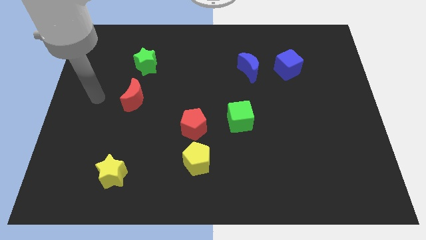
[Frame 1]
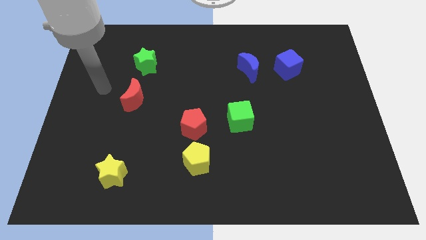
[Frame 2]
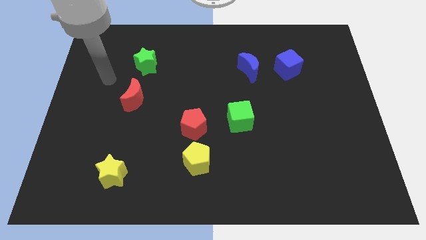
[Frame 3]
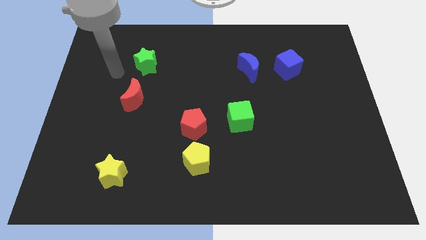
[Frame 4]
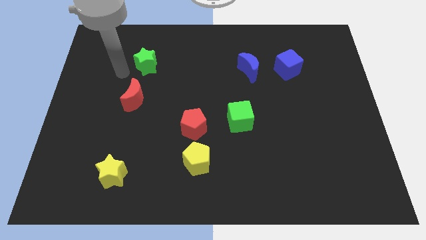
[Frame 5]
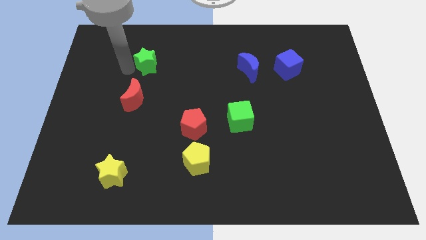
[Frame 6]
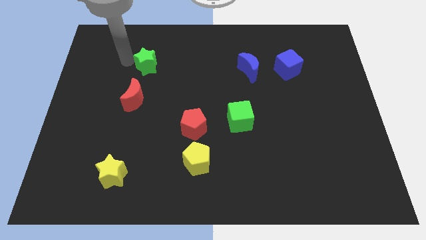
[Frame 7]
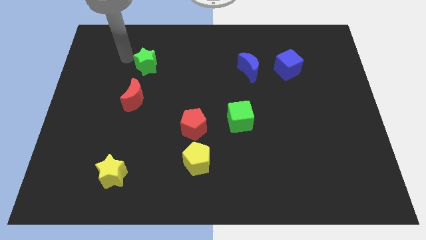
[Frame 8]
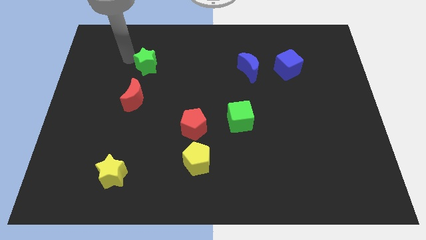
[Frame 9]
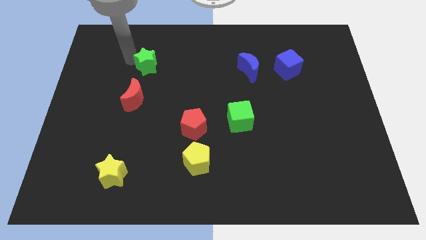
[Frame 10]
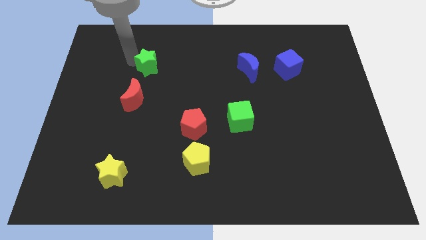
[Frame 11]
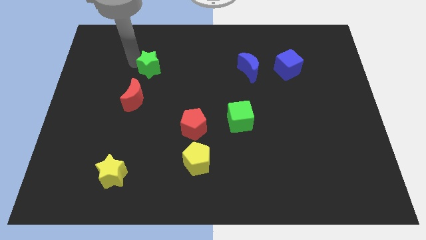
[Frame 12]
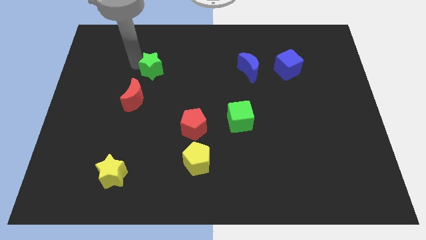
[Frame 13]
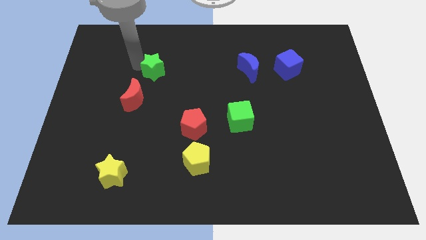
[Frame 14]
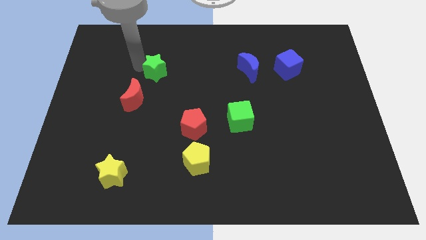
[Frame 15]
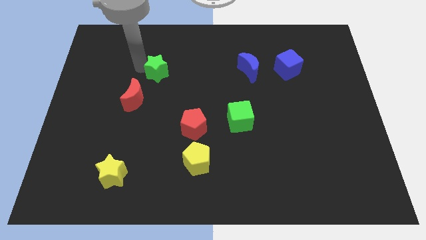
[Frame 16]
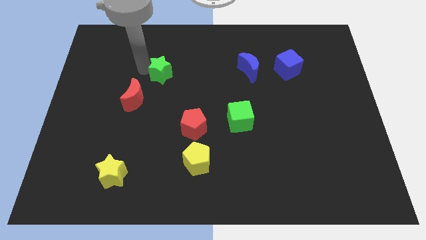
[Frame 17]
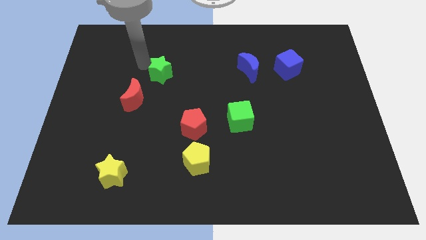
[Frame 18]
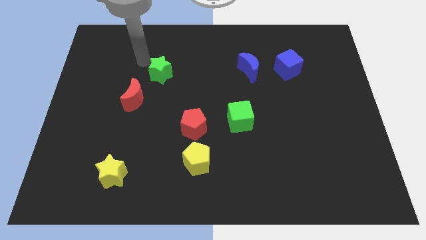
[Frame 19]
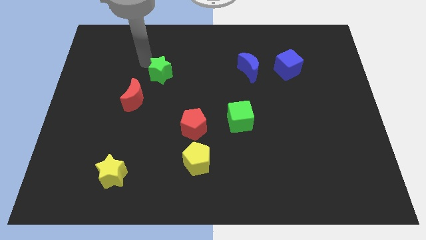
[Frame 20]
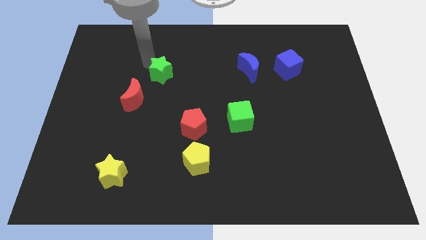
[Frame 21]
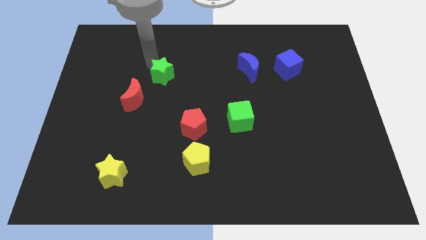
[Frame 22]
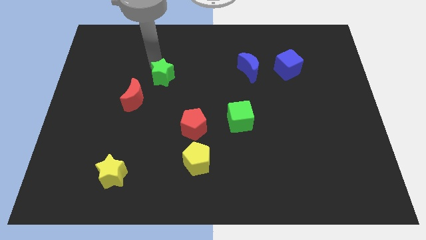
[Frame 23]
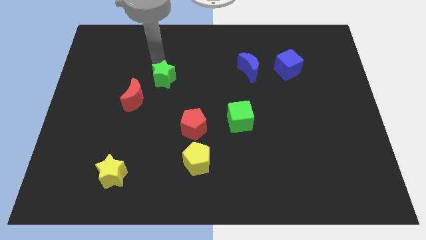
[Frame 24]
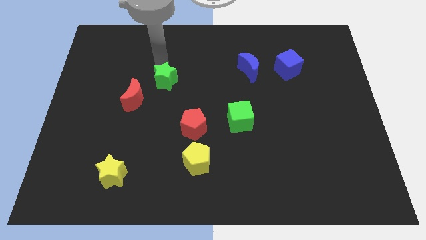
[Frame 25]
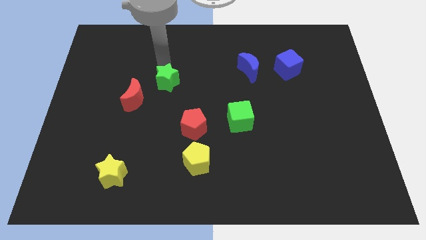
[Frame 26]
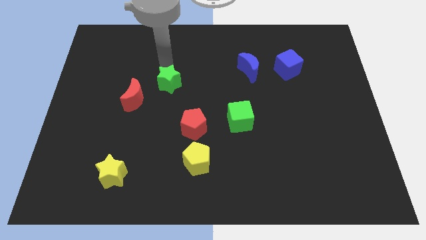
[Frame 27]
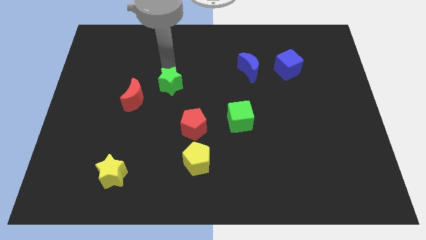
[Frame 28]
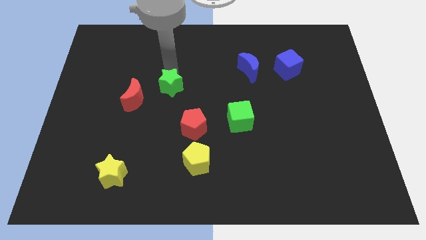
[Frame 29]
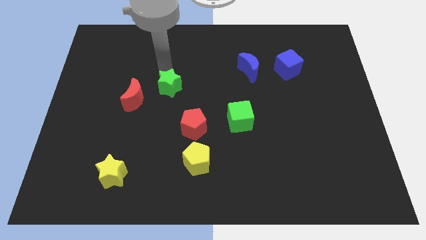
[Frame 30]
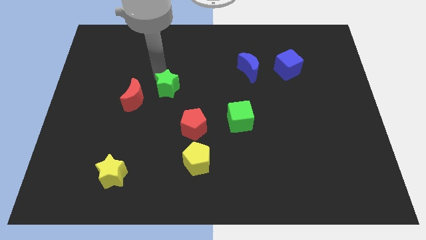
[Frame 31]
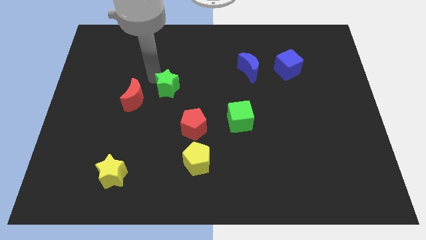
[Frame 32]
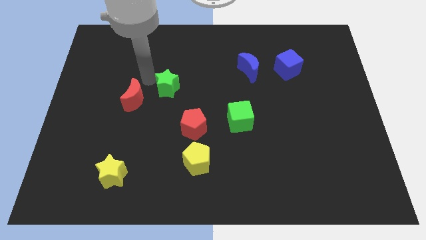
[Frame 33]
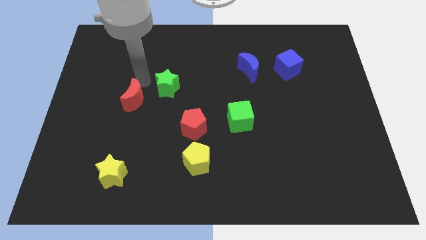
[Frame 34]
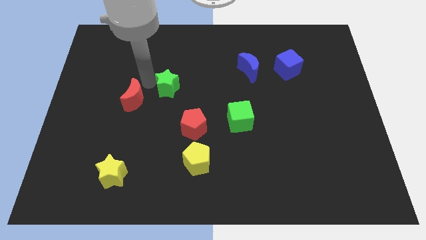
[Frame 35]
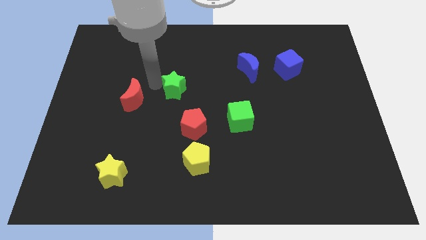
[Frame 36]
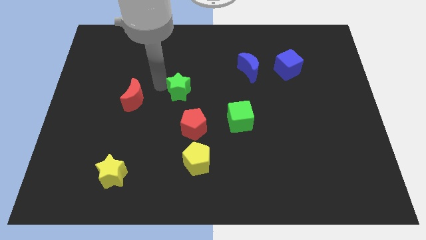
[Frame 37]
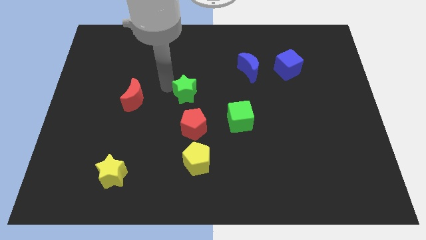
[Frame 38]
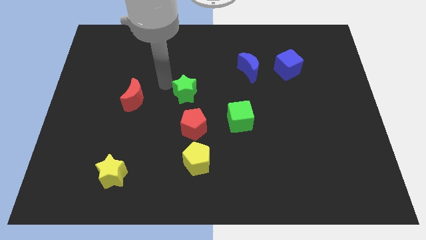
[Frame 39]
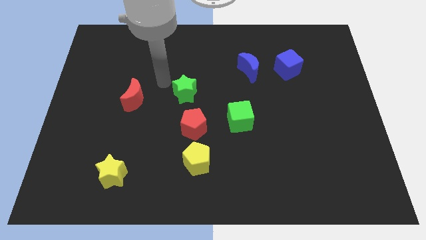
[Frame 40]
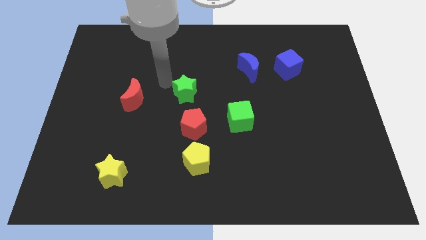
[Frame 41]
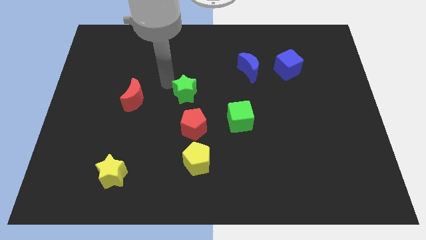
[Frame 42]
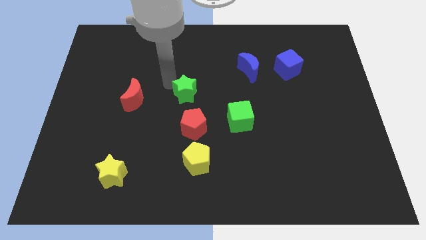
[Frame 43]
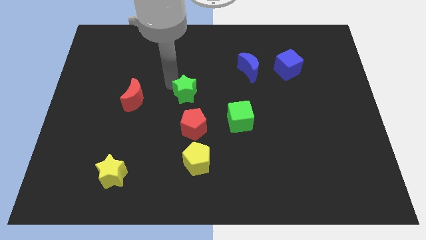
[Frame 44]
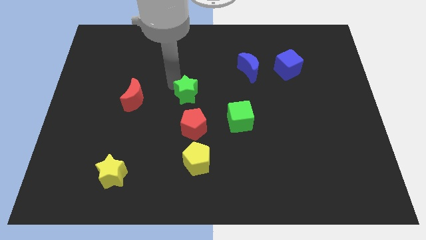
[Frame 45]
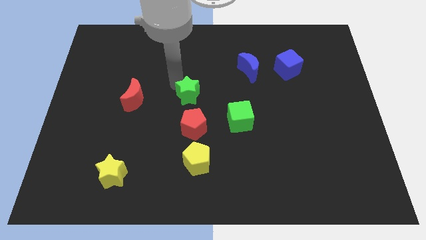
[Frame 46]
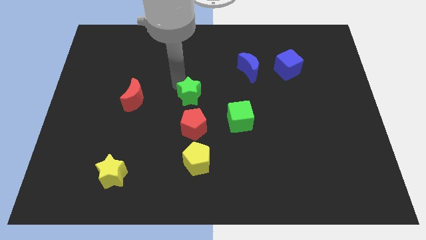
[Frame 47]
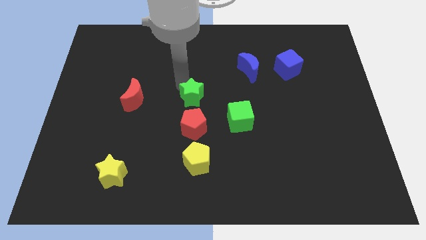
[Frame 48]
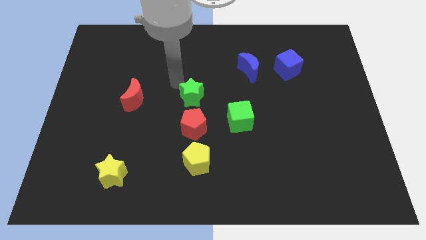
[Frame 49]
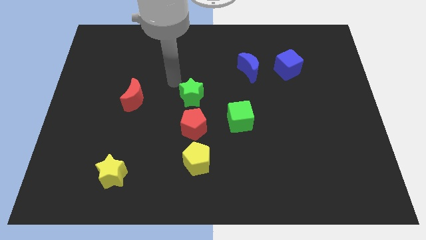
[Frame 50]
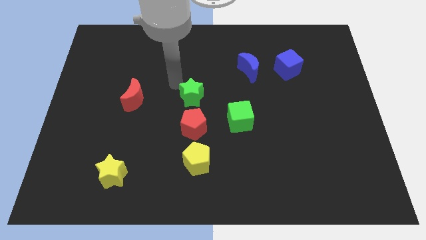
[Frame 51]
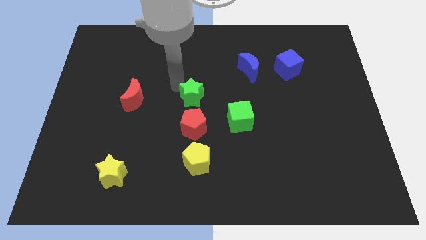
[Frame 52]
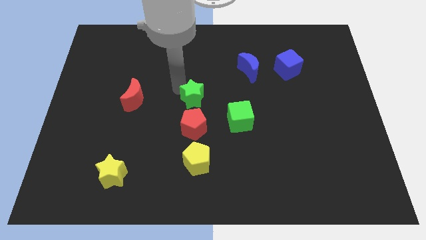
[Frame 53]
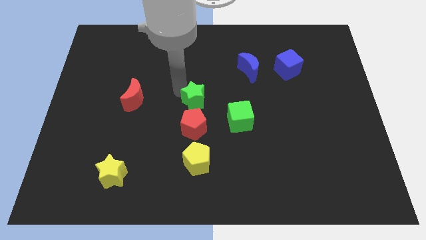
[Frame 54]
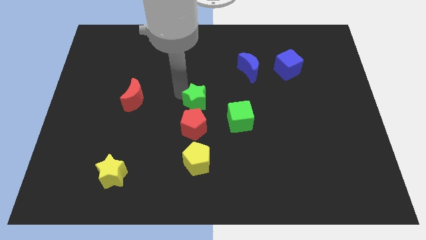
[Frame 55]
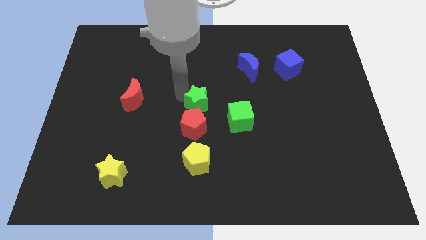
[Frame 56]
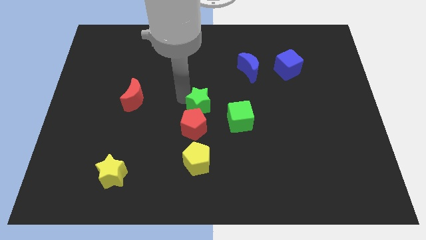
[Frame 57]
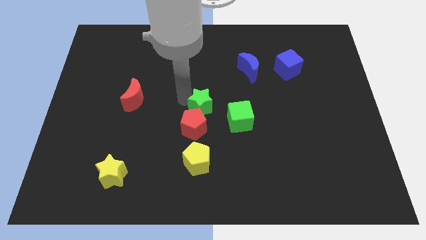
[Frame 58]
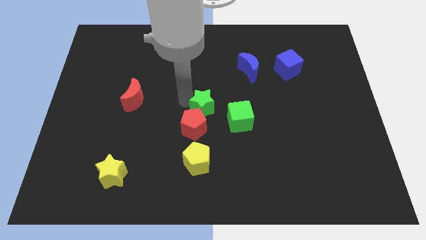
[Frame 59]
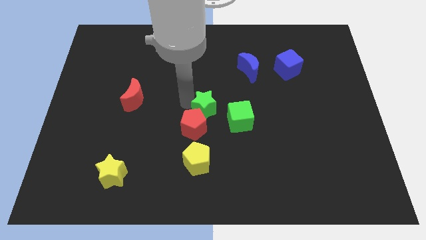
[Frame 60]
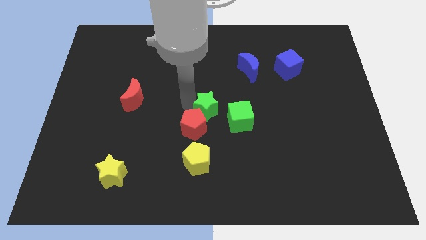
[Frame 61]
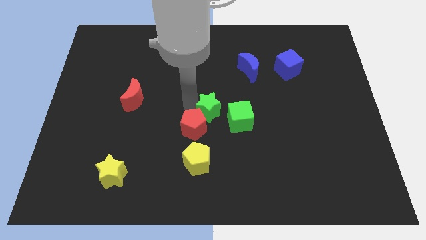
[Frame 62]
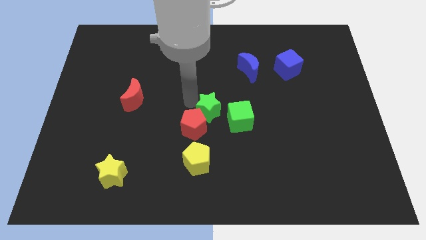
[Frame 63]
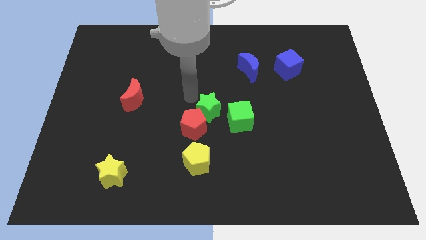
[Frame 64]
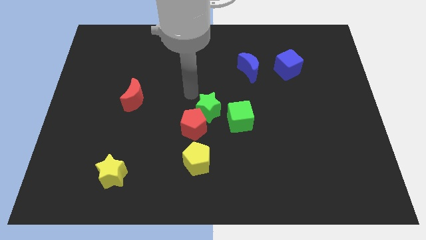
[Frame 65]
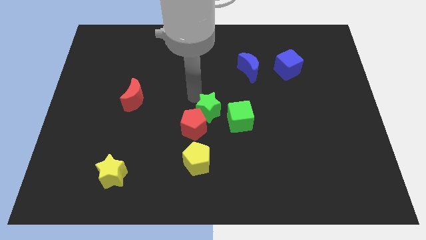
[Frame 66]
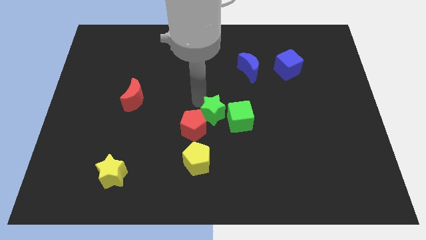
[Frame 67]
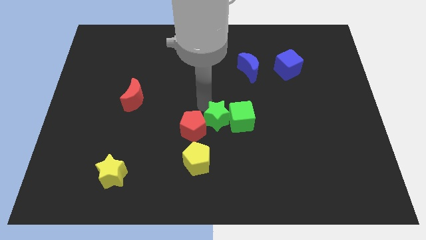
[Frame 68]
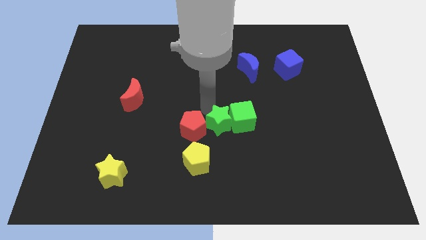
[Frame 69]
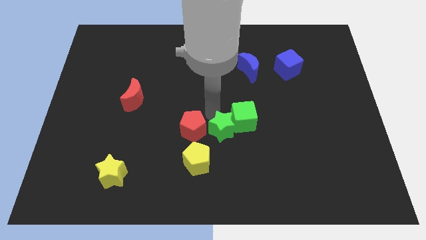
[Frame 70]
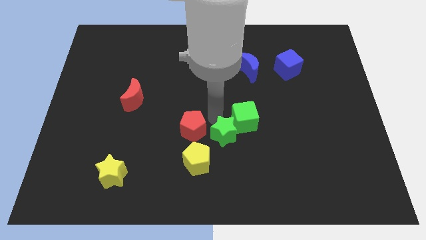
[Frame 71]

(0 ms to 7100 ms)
move the green star to the bottom of the green cube

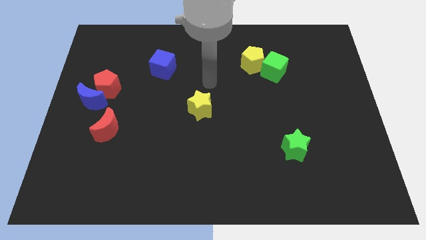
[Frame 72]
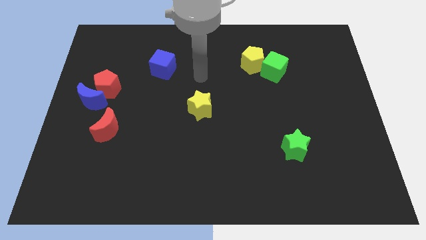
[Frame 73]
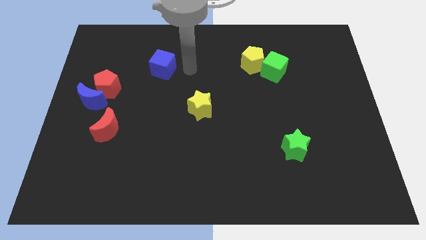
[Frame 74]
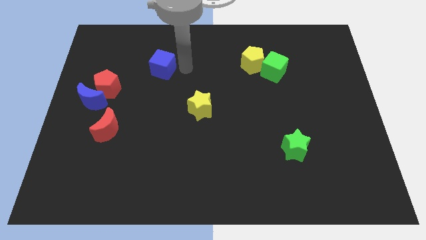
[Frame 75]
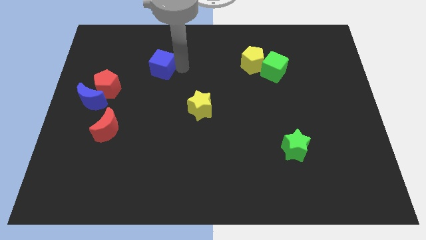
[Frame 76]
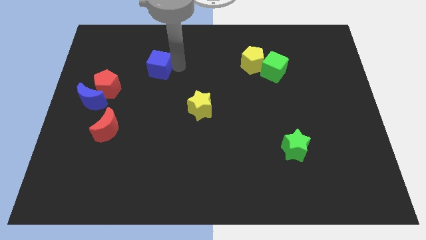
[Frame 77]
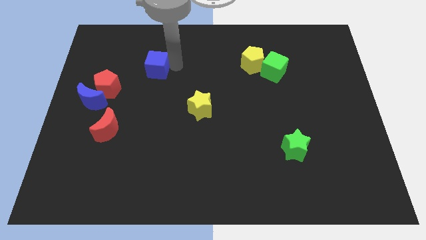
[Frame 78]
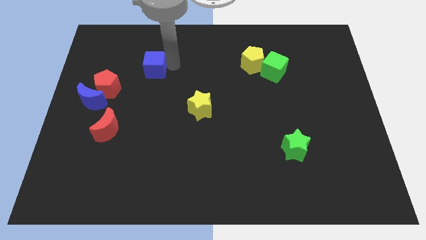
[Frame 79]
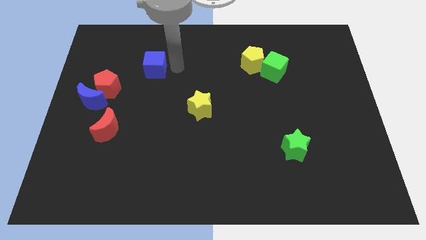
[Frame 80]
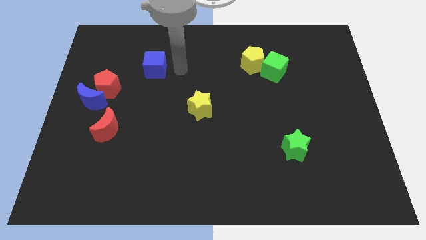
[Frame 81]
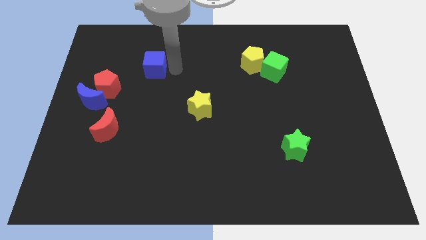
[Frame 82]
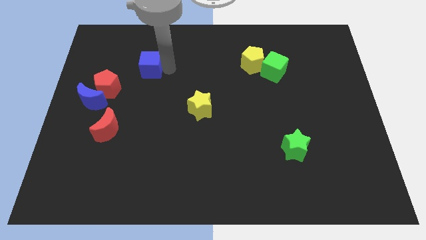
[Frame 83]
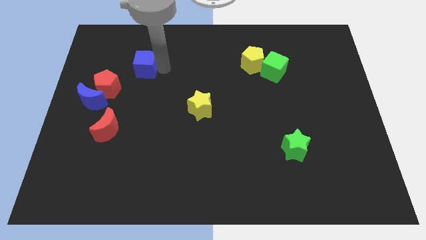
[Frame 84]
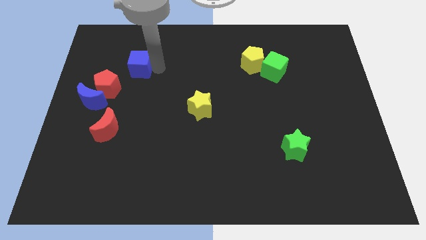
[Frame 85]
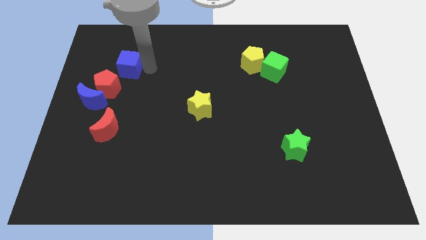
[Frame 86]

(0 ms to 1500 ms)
move the blue cube to the top of the red pentagon
